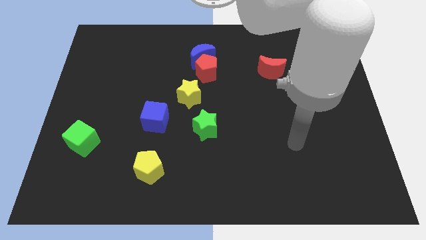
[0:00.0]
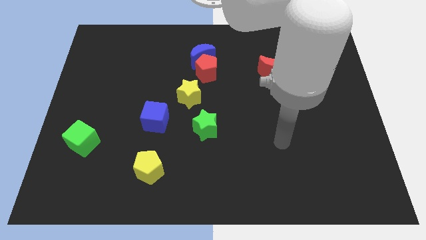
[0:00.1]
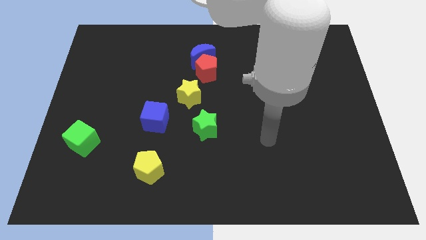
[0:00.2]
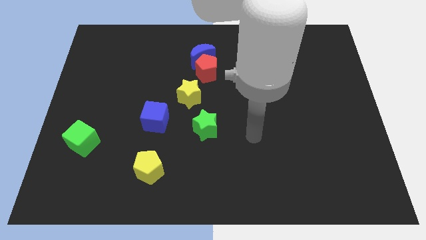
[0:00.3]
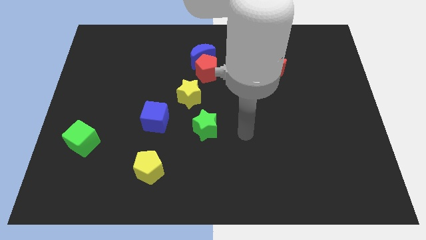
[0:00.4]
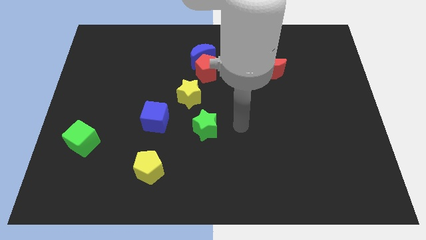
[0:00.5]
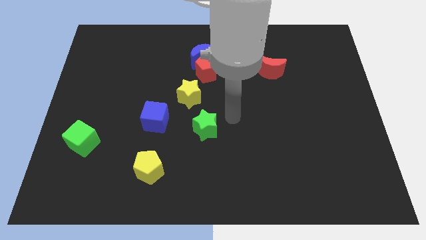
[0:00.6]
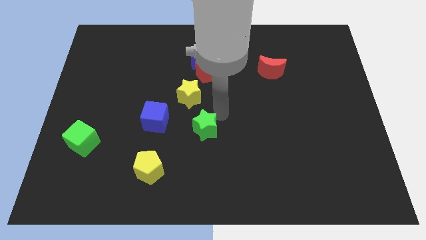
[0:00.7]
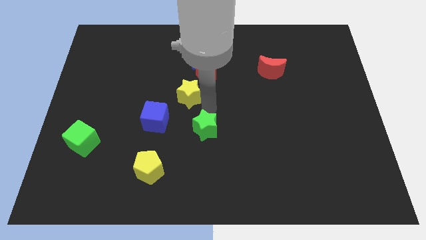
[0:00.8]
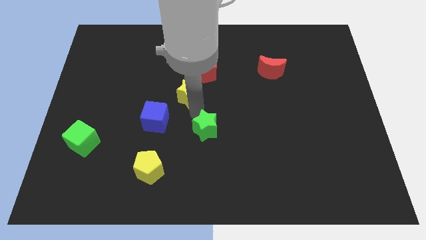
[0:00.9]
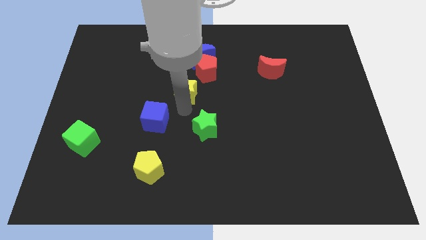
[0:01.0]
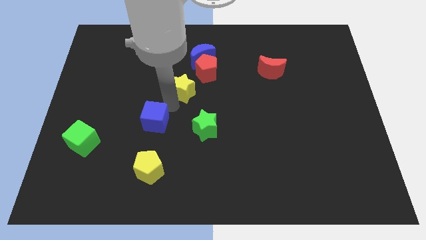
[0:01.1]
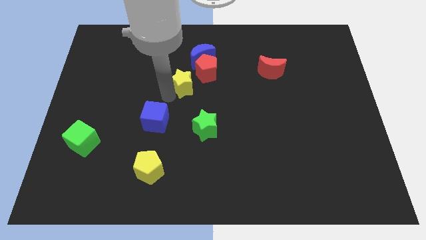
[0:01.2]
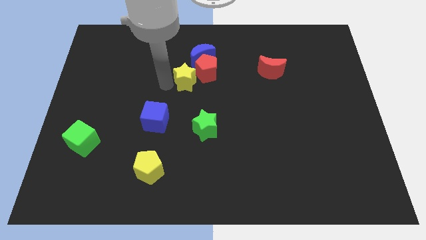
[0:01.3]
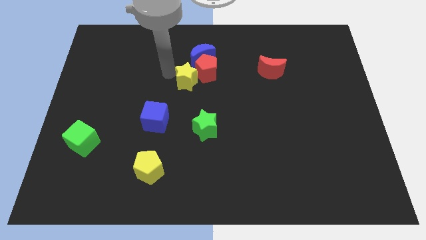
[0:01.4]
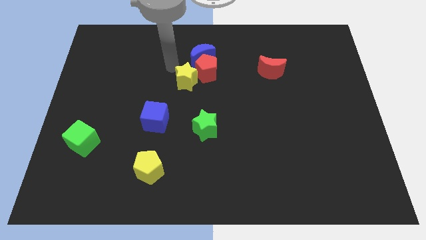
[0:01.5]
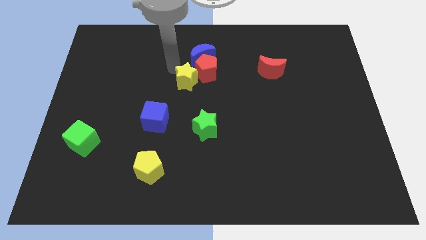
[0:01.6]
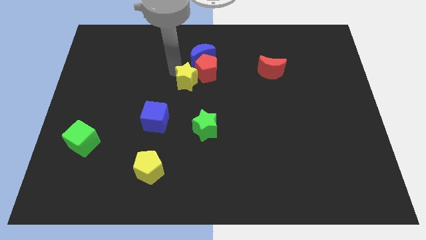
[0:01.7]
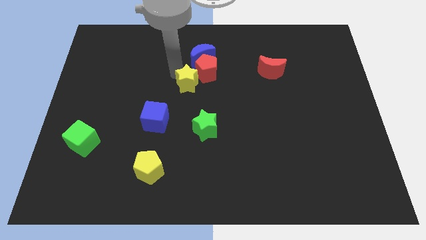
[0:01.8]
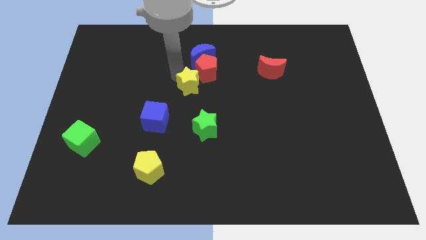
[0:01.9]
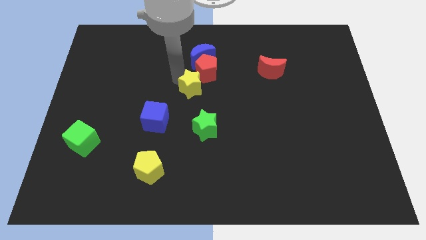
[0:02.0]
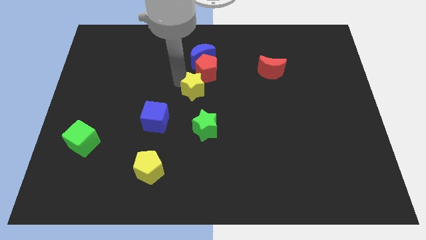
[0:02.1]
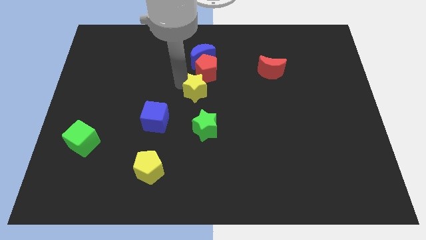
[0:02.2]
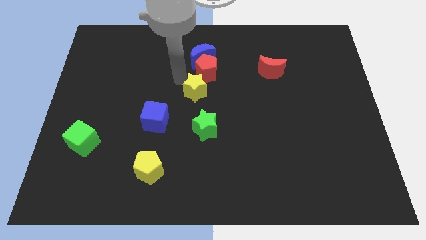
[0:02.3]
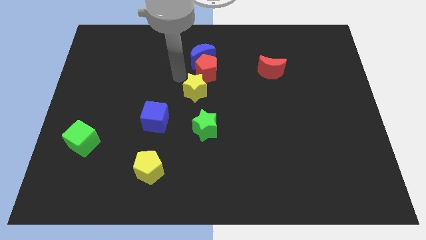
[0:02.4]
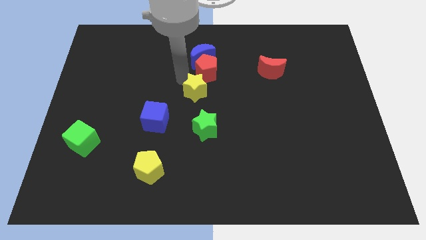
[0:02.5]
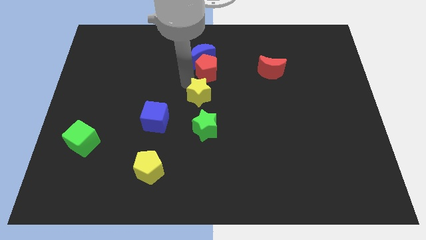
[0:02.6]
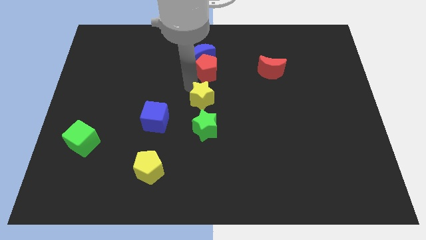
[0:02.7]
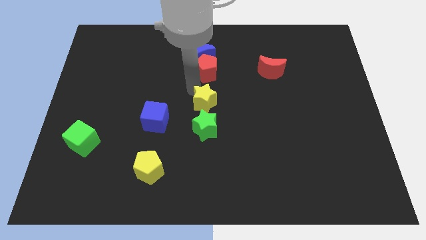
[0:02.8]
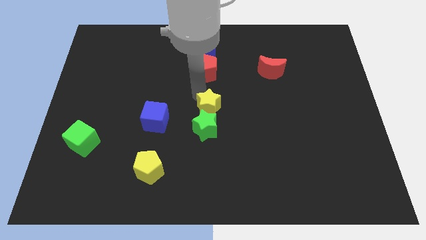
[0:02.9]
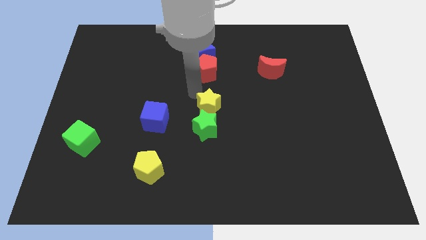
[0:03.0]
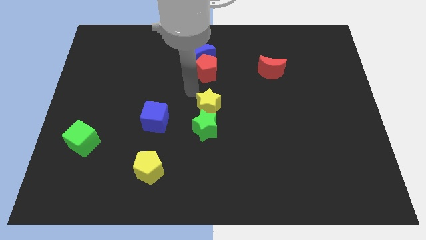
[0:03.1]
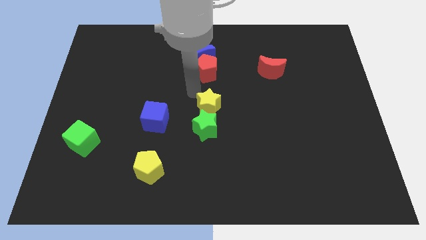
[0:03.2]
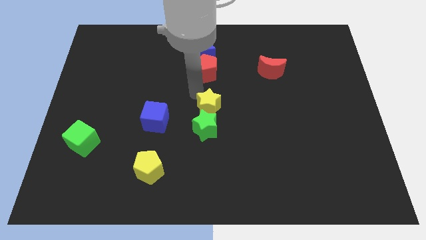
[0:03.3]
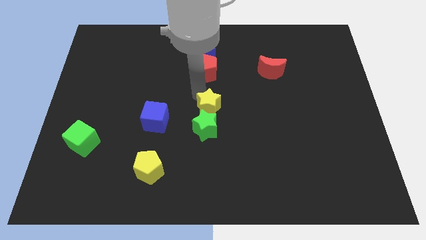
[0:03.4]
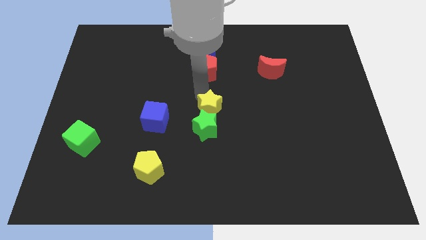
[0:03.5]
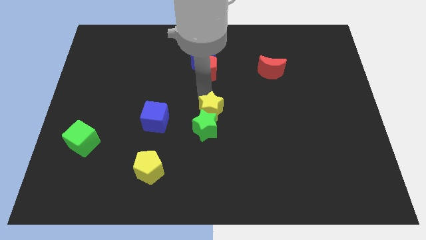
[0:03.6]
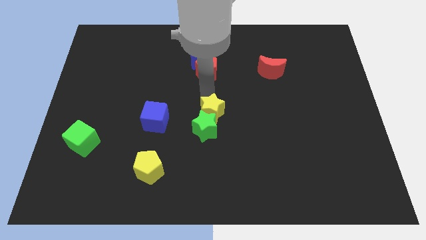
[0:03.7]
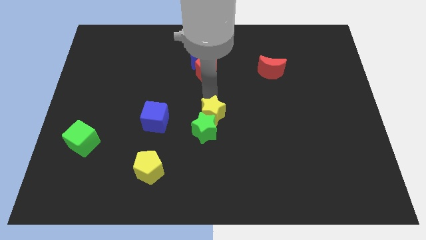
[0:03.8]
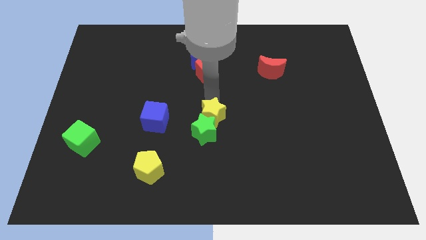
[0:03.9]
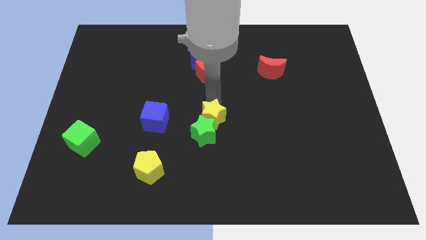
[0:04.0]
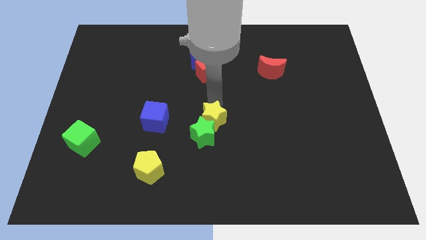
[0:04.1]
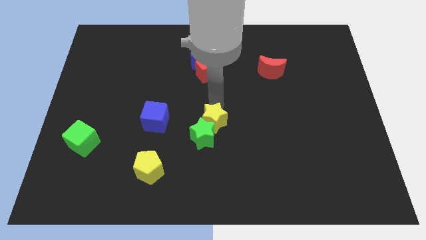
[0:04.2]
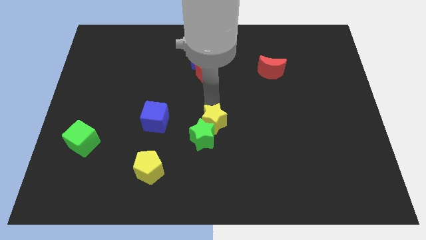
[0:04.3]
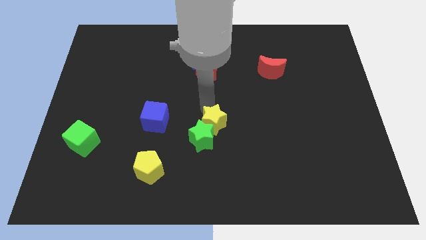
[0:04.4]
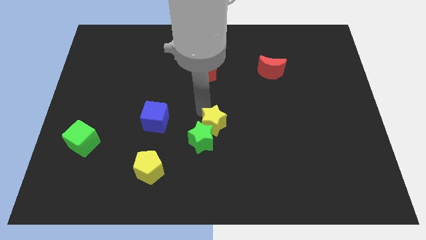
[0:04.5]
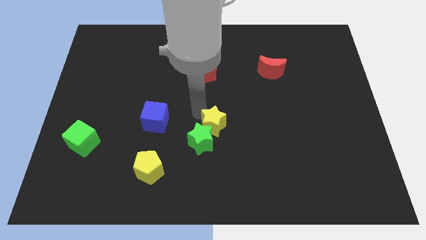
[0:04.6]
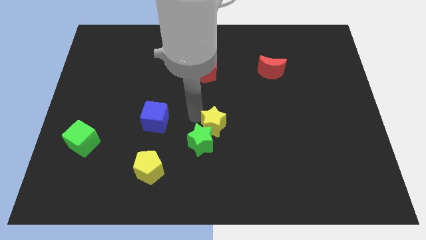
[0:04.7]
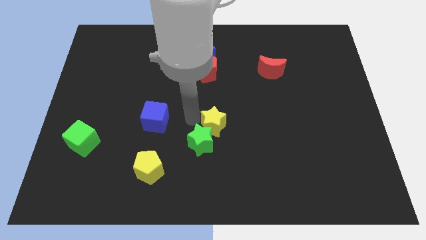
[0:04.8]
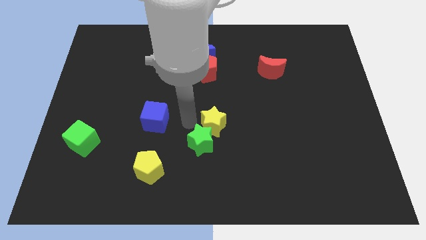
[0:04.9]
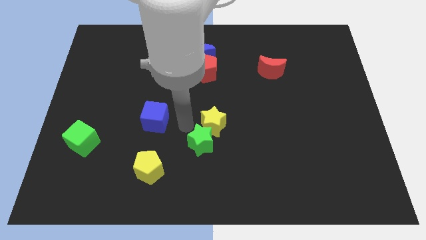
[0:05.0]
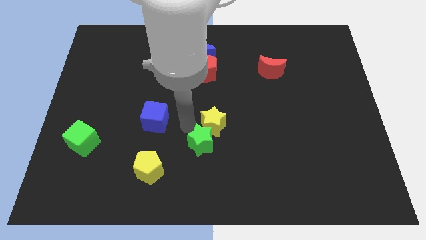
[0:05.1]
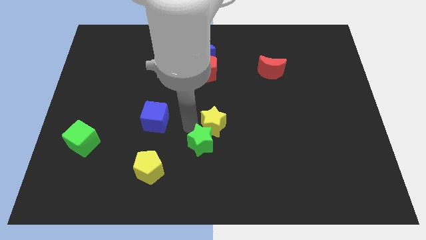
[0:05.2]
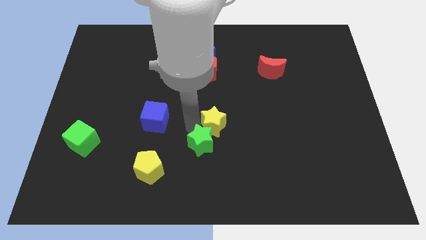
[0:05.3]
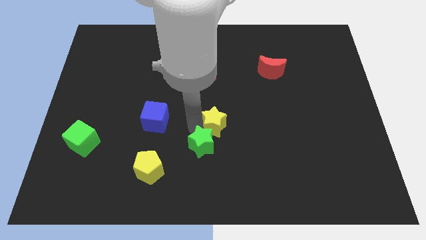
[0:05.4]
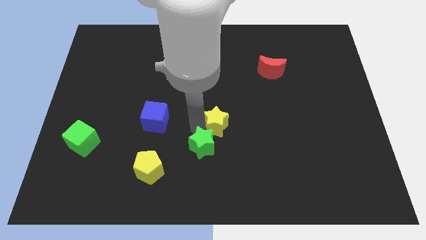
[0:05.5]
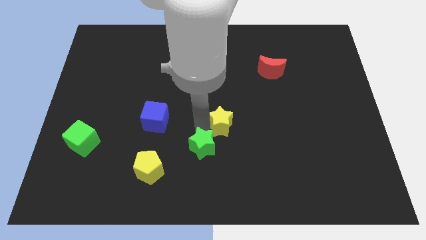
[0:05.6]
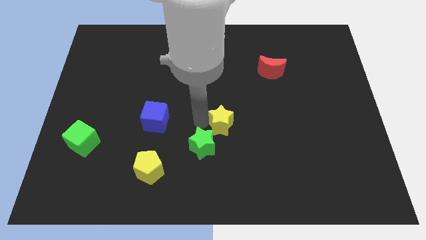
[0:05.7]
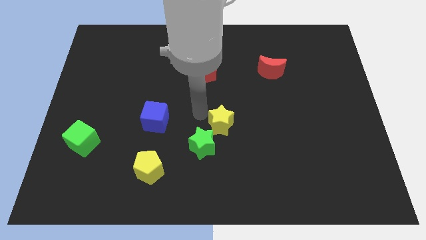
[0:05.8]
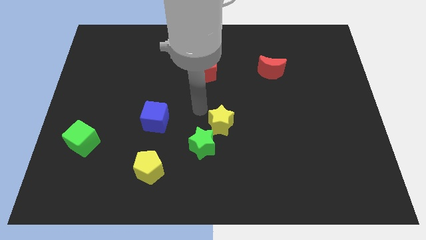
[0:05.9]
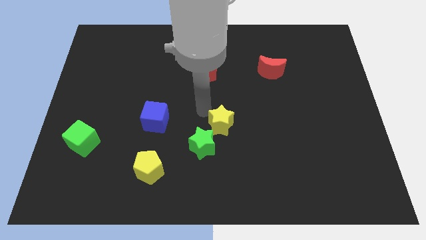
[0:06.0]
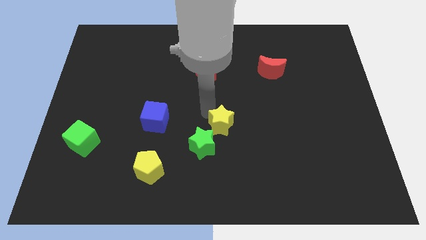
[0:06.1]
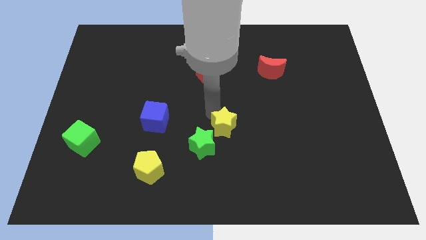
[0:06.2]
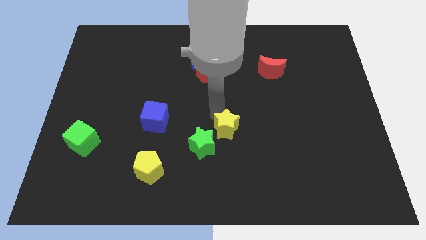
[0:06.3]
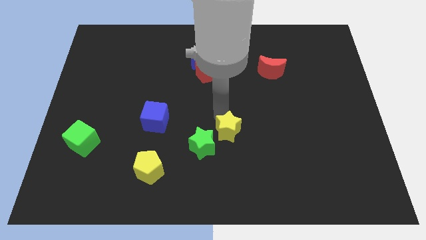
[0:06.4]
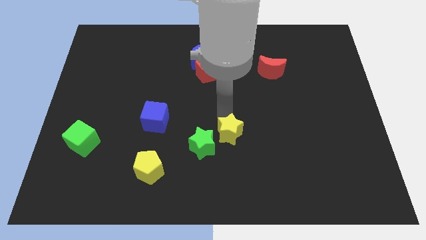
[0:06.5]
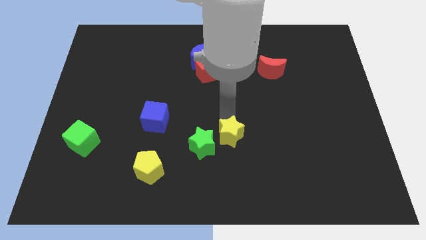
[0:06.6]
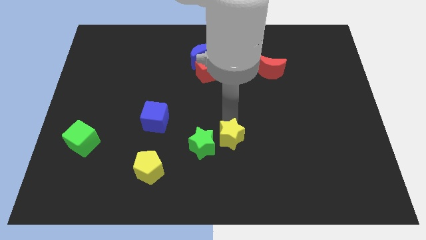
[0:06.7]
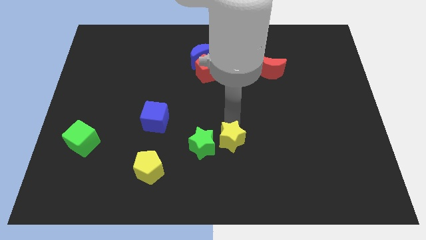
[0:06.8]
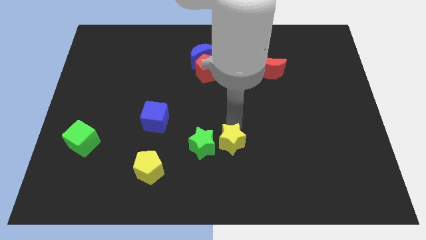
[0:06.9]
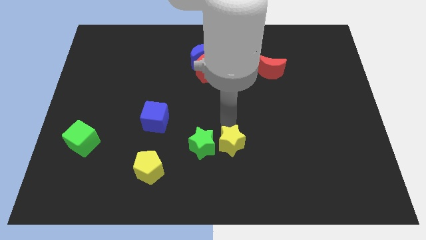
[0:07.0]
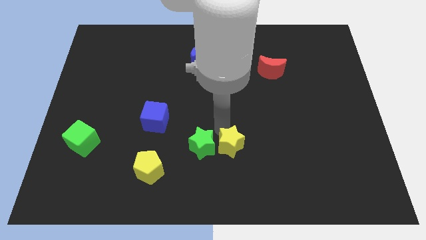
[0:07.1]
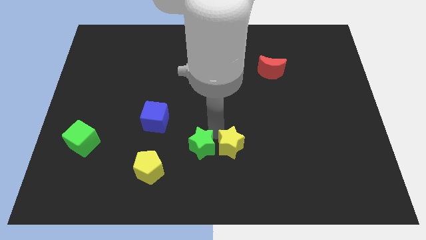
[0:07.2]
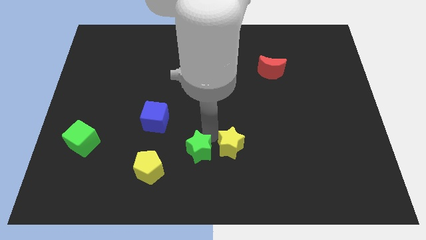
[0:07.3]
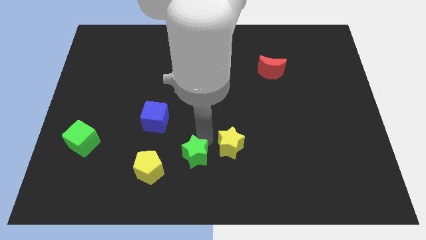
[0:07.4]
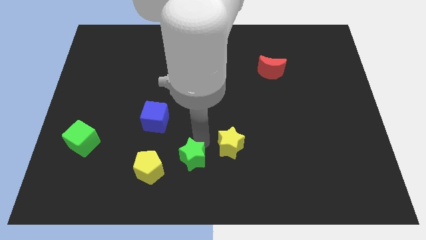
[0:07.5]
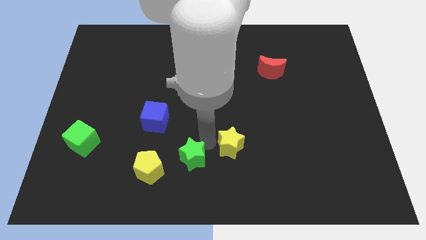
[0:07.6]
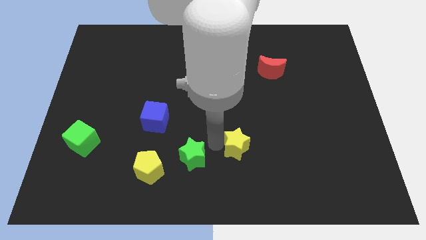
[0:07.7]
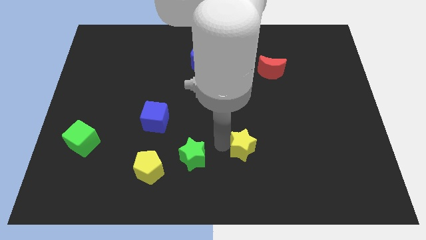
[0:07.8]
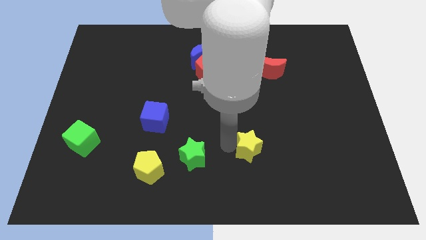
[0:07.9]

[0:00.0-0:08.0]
slide the yellow star diagonally down and to the right
